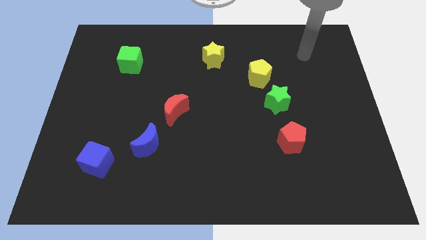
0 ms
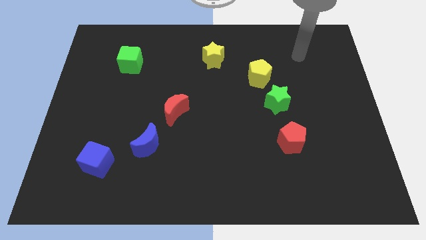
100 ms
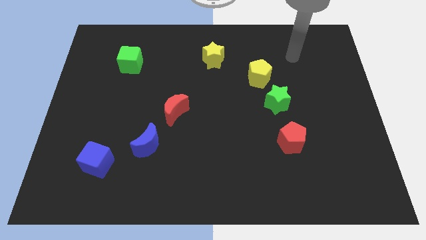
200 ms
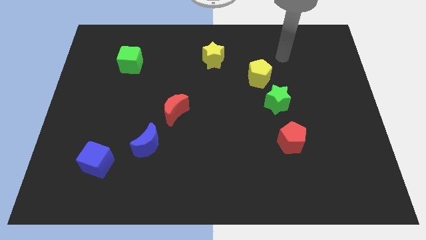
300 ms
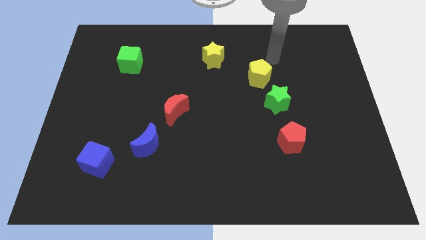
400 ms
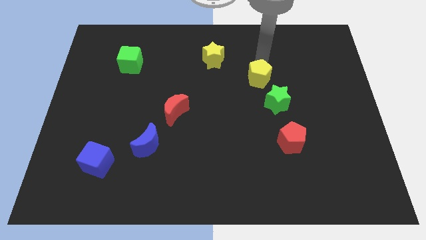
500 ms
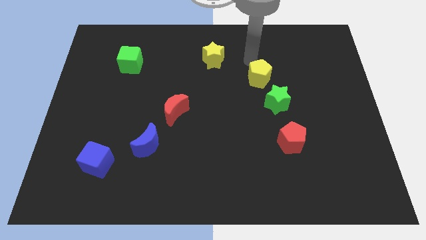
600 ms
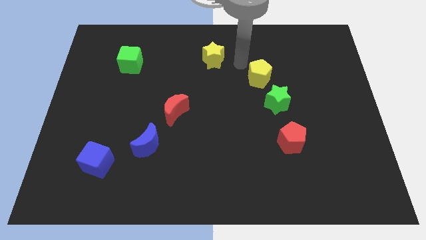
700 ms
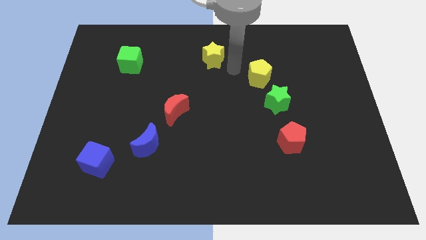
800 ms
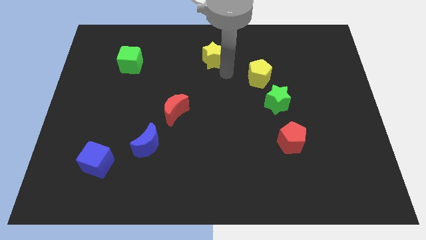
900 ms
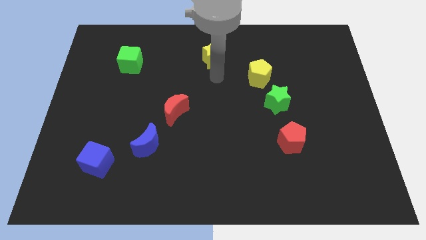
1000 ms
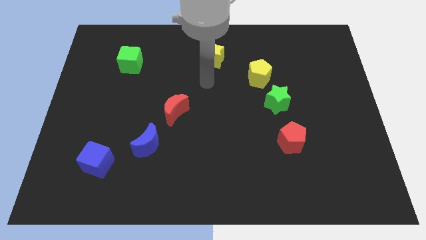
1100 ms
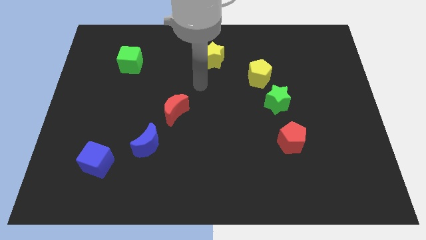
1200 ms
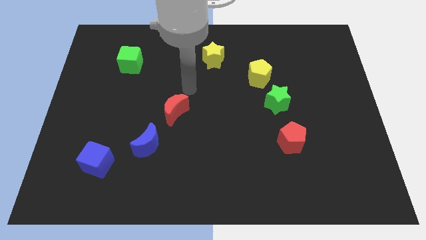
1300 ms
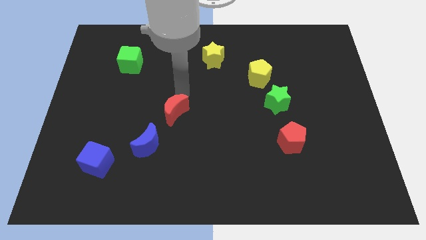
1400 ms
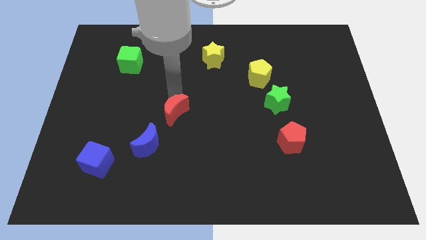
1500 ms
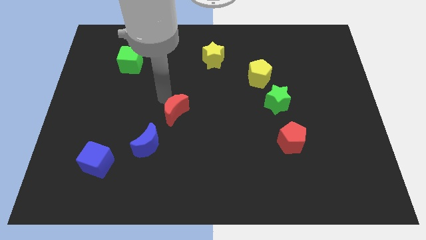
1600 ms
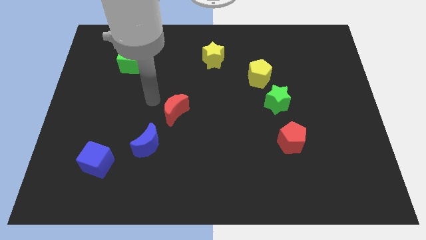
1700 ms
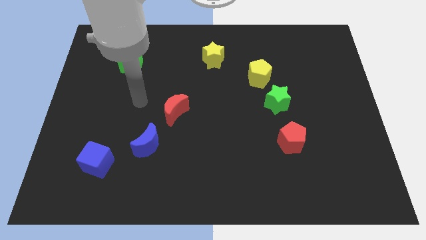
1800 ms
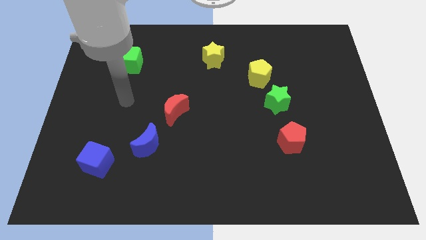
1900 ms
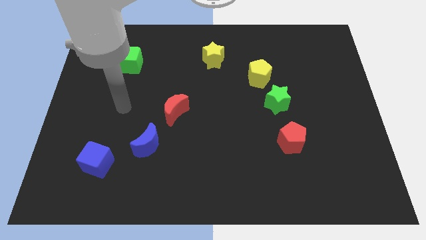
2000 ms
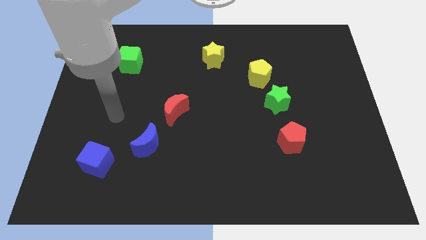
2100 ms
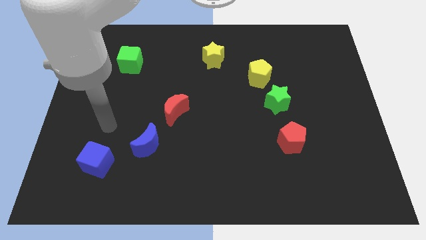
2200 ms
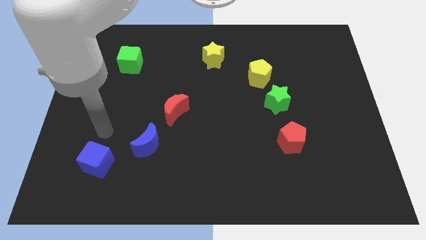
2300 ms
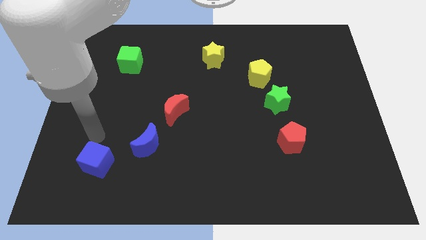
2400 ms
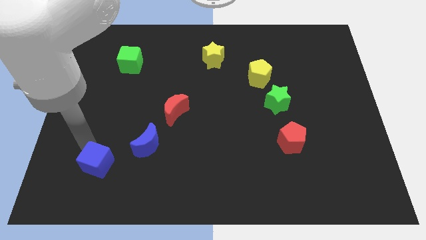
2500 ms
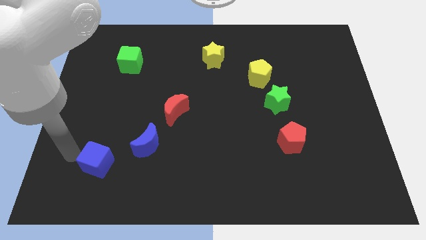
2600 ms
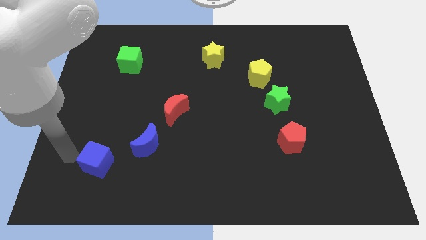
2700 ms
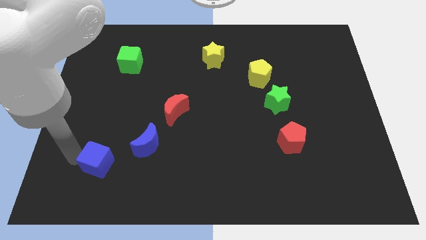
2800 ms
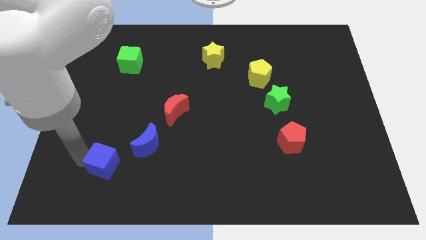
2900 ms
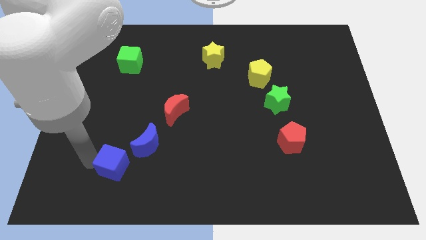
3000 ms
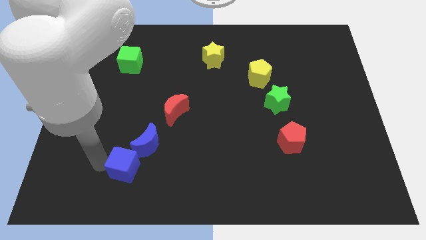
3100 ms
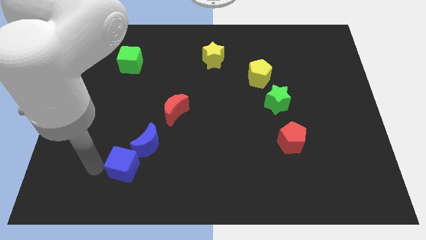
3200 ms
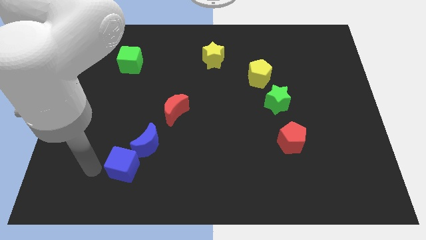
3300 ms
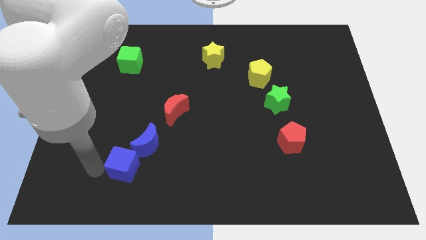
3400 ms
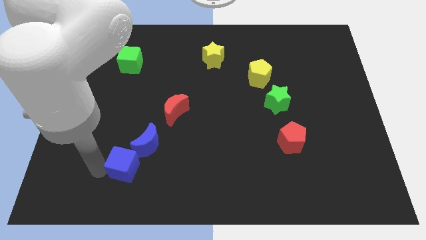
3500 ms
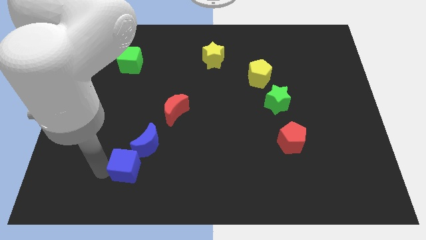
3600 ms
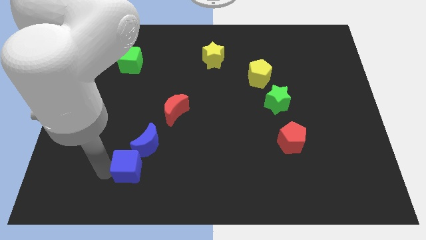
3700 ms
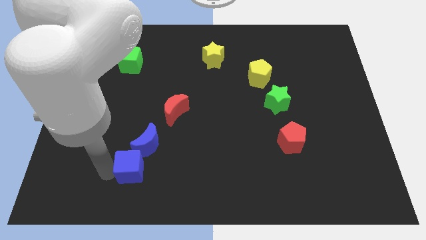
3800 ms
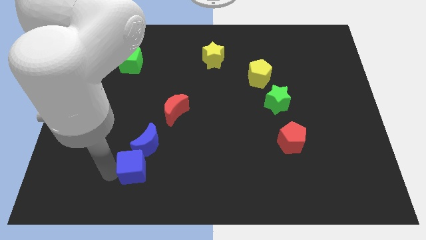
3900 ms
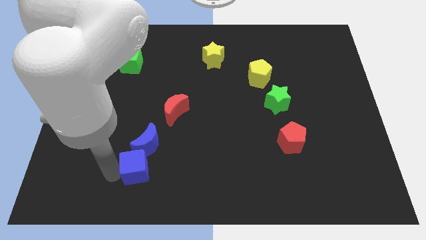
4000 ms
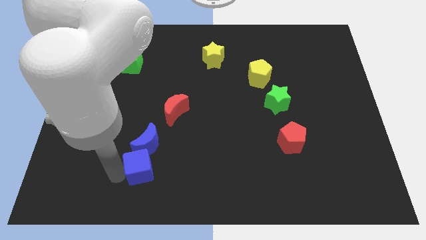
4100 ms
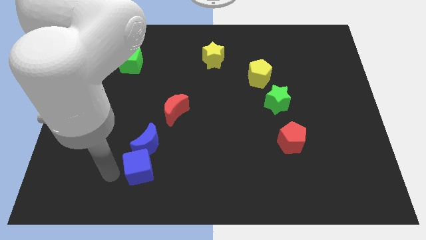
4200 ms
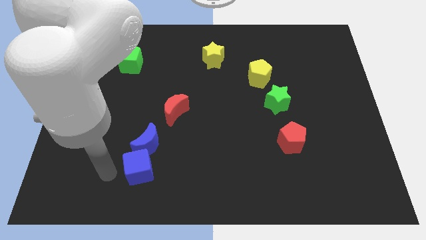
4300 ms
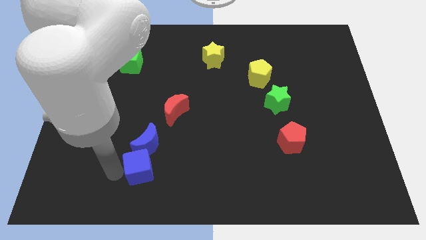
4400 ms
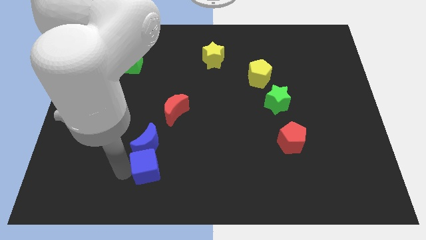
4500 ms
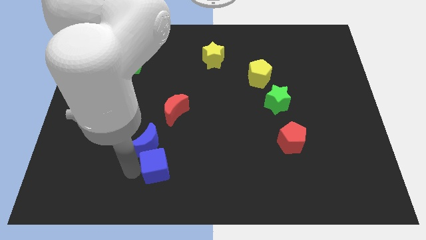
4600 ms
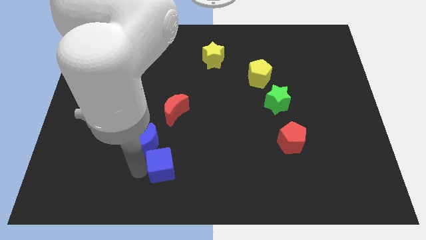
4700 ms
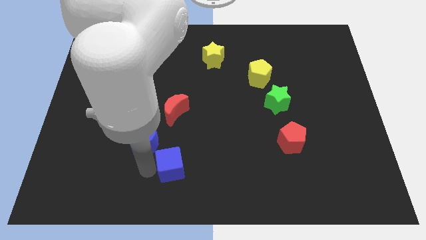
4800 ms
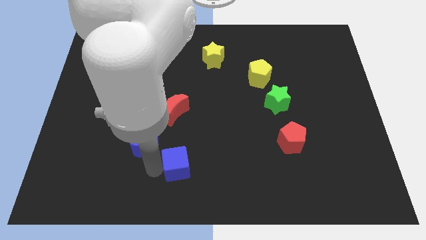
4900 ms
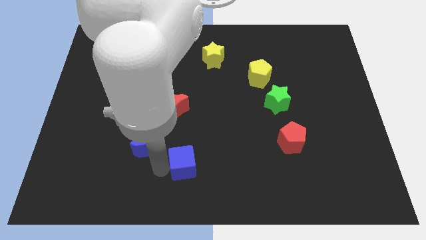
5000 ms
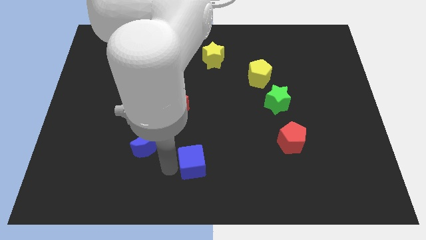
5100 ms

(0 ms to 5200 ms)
move the blue cube to the right

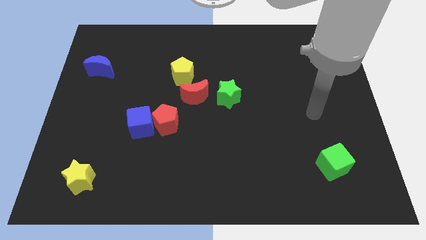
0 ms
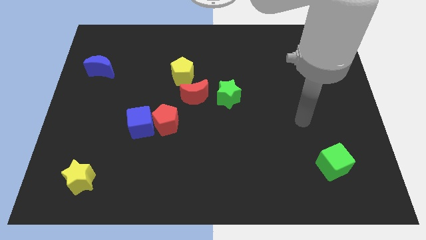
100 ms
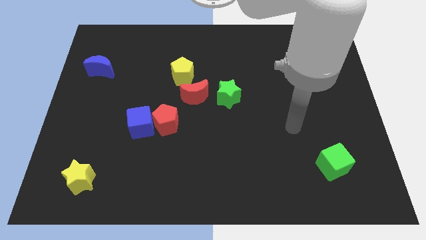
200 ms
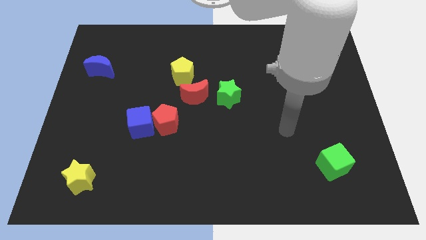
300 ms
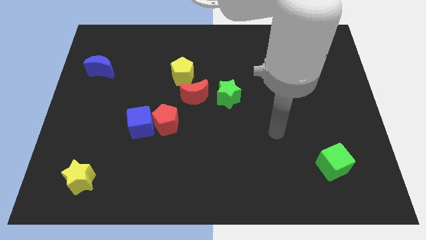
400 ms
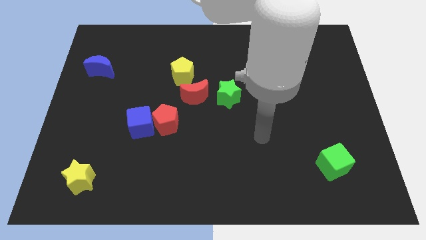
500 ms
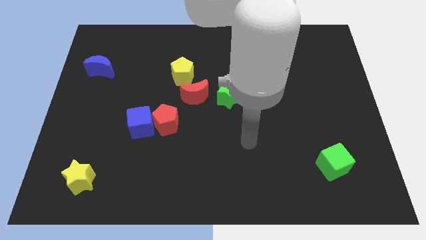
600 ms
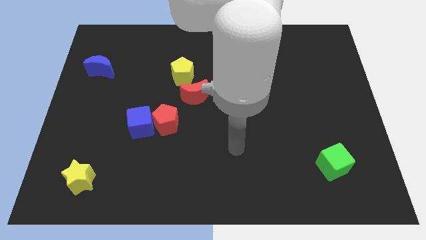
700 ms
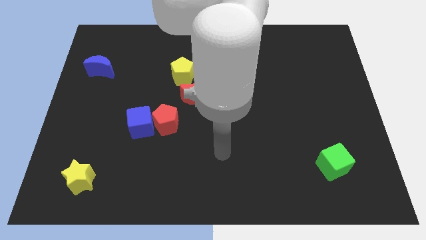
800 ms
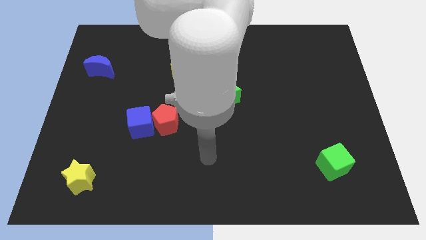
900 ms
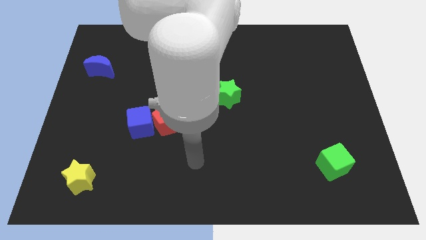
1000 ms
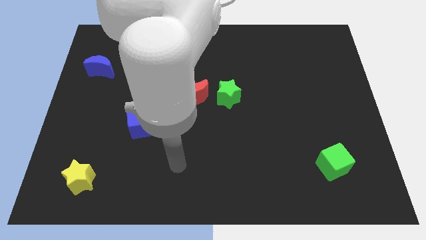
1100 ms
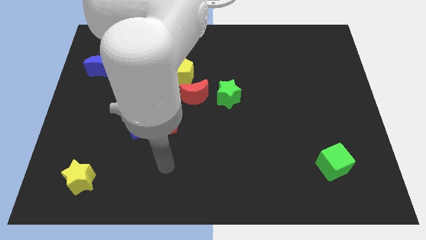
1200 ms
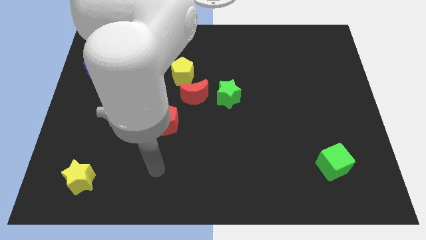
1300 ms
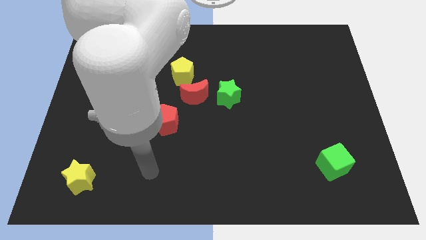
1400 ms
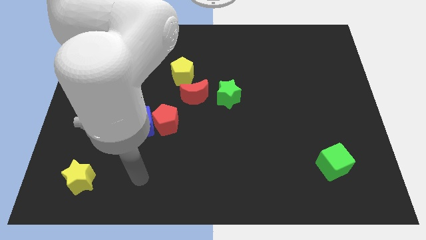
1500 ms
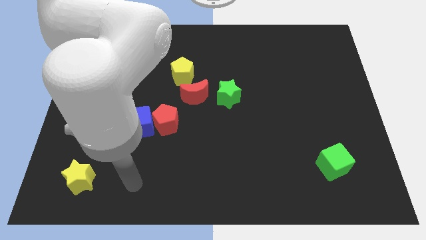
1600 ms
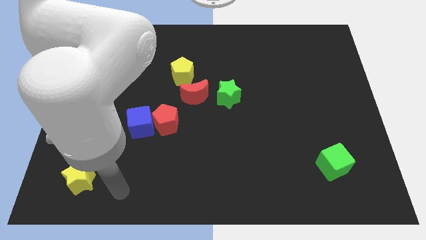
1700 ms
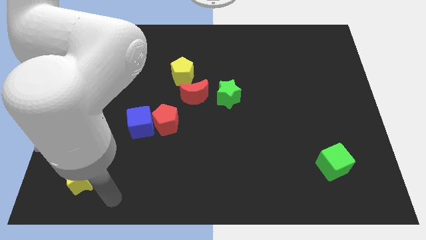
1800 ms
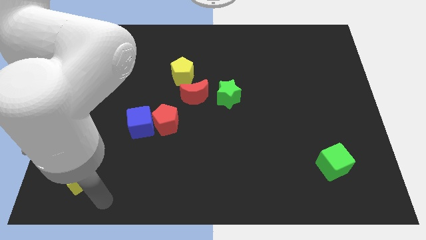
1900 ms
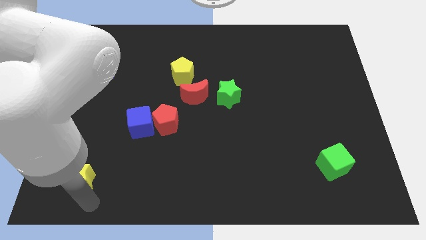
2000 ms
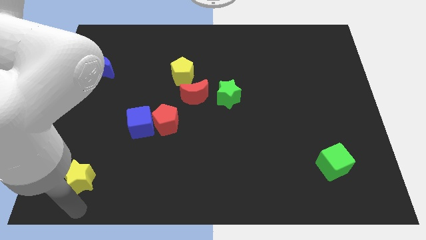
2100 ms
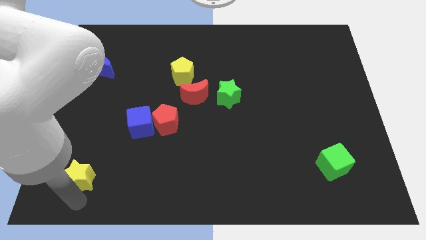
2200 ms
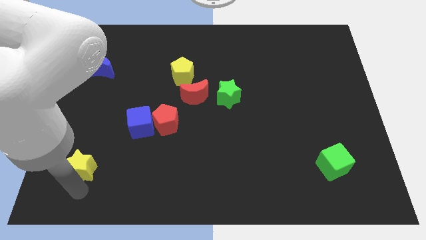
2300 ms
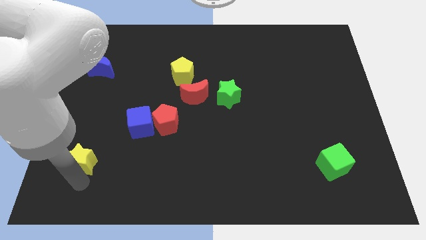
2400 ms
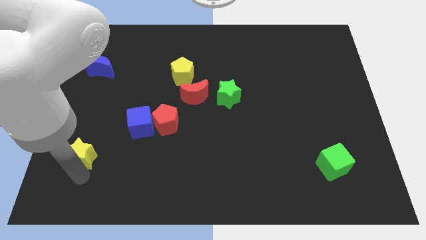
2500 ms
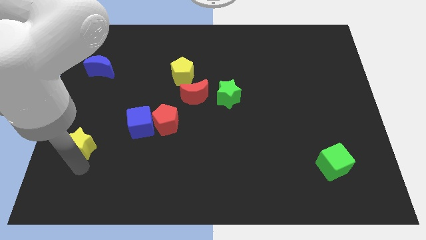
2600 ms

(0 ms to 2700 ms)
slightly move the yellow star upwards

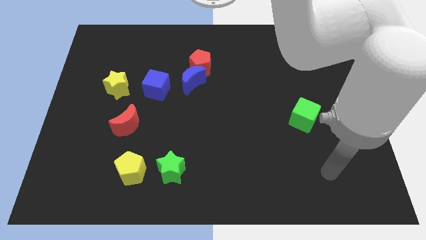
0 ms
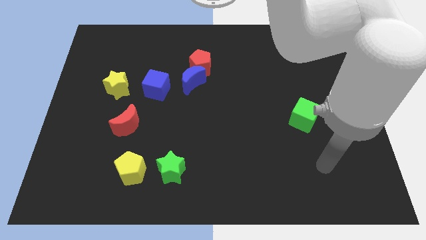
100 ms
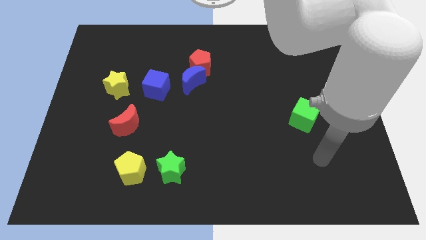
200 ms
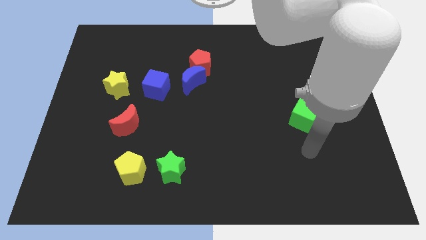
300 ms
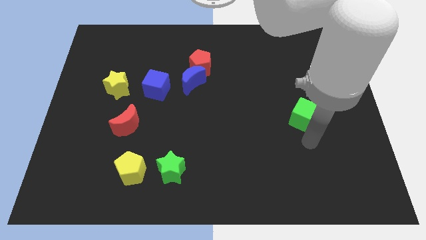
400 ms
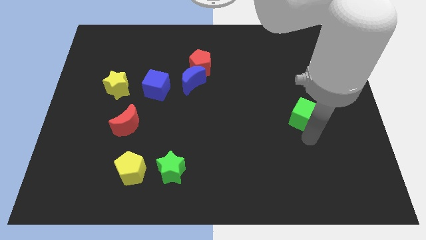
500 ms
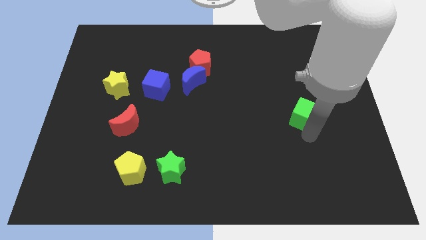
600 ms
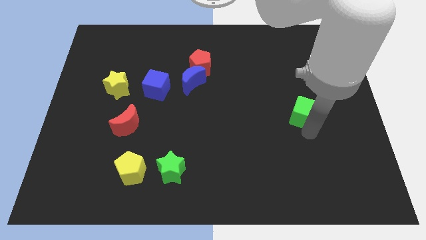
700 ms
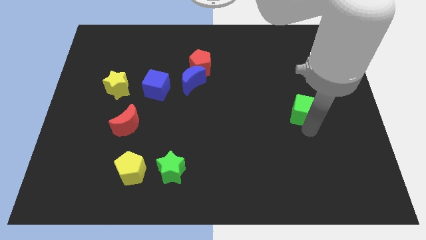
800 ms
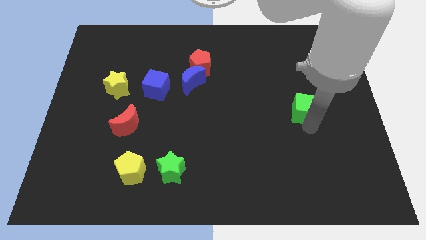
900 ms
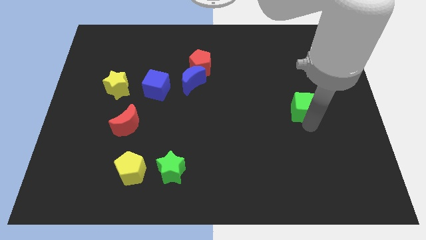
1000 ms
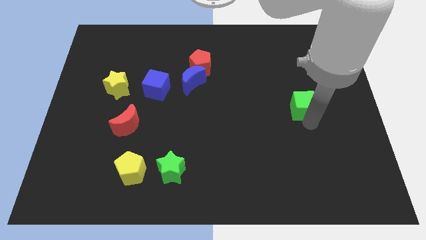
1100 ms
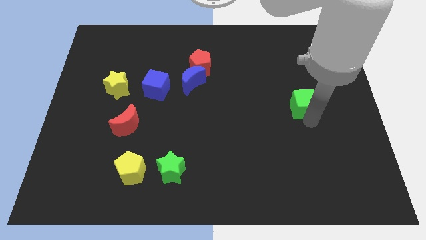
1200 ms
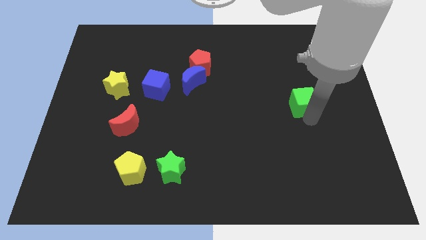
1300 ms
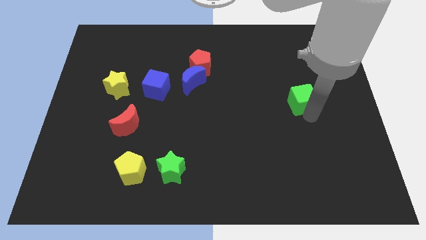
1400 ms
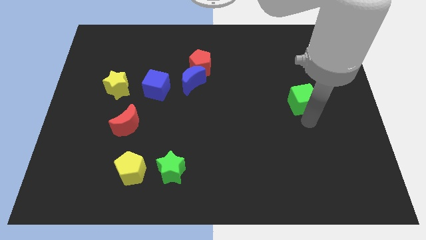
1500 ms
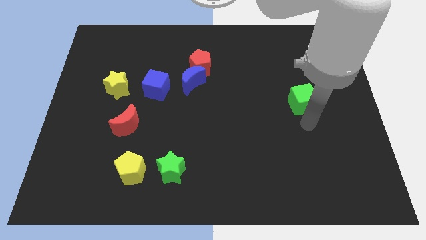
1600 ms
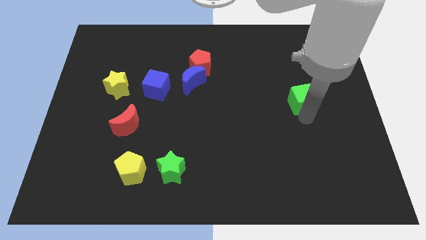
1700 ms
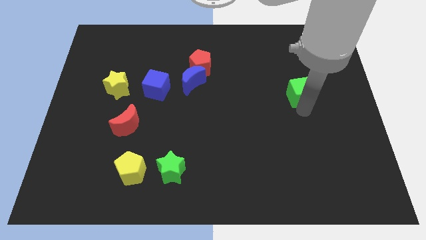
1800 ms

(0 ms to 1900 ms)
move the green cube up a bit
